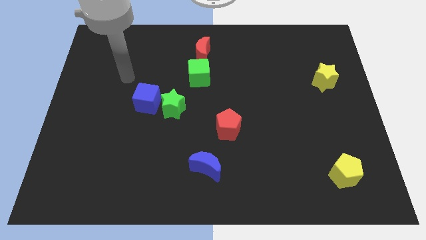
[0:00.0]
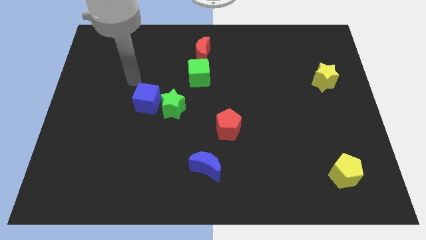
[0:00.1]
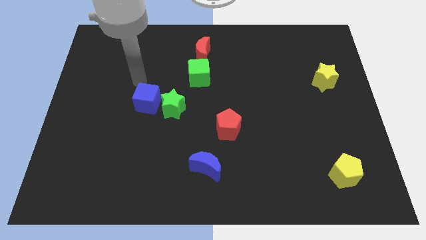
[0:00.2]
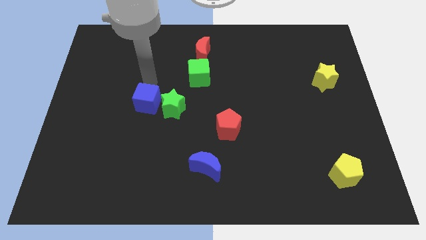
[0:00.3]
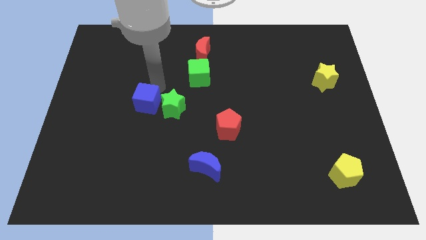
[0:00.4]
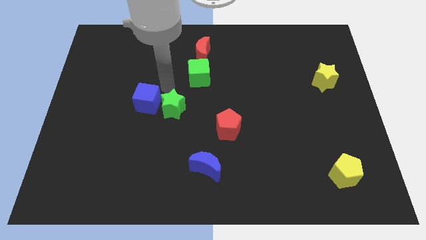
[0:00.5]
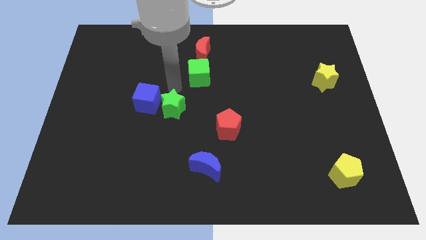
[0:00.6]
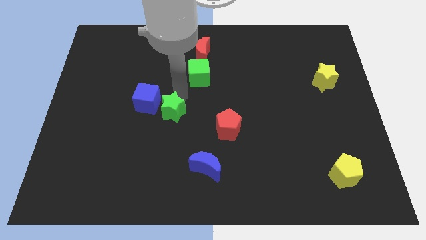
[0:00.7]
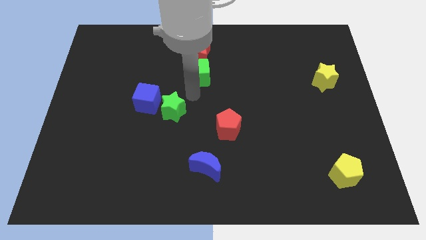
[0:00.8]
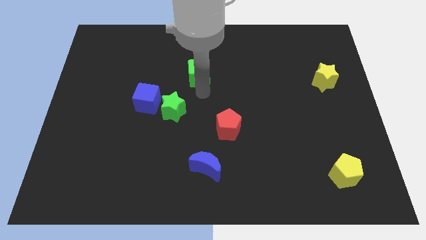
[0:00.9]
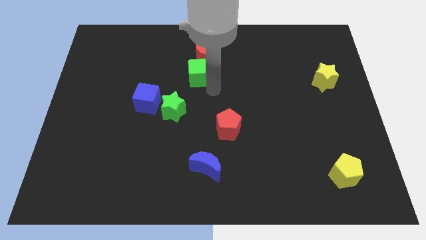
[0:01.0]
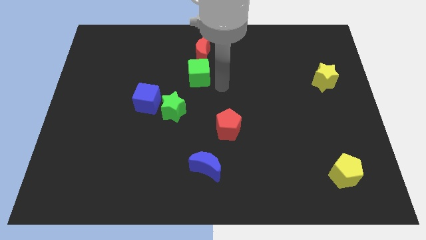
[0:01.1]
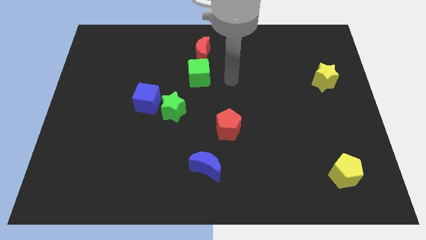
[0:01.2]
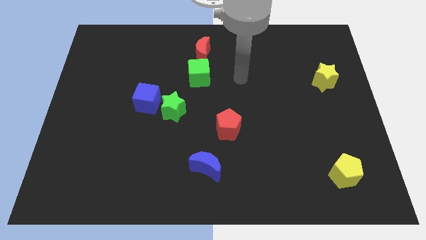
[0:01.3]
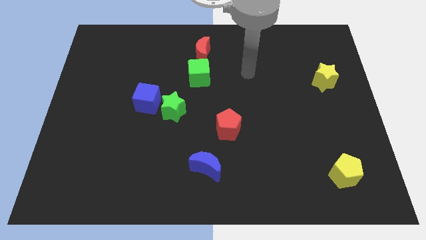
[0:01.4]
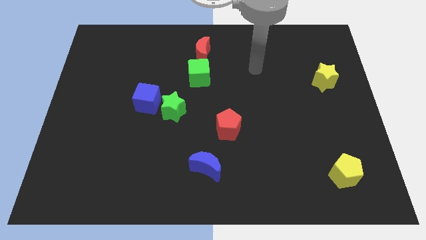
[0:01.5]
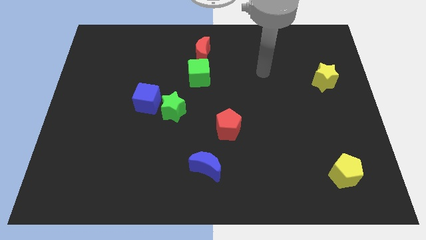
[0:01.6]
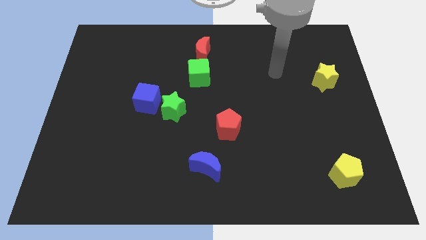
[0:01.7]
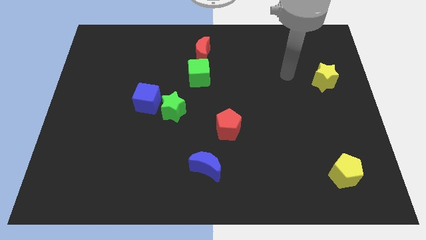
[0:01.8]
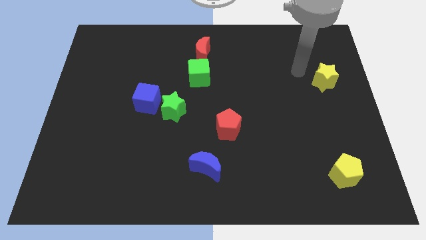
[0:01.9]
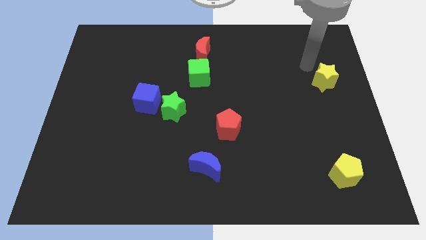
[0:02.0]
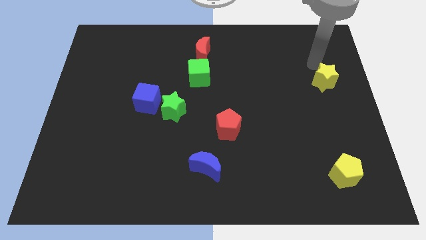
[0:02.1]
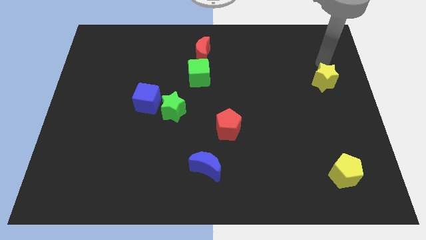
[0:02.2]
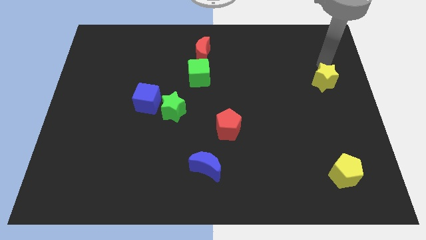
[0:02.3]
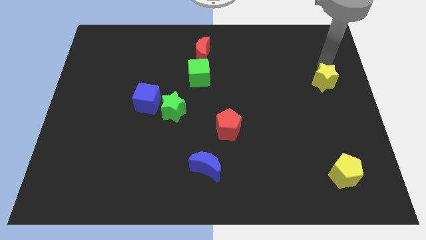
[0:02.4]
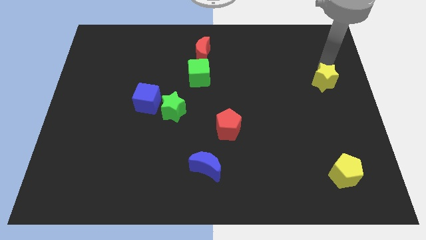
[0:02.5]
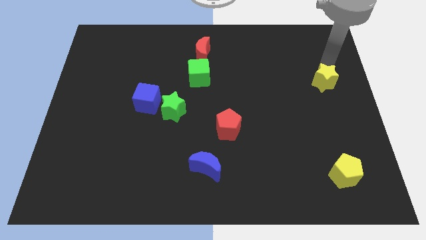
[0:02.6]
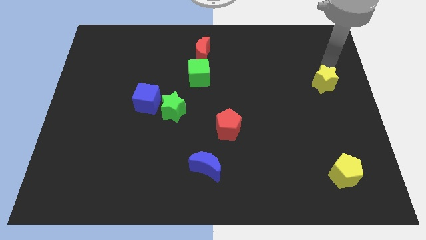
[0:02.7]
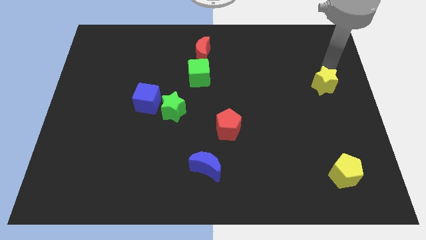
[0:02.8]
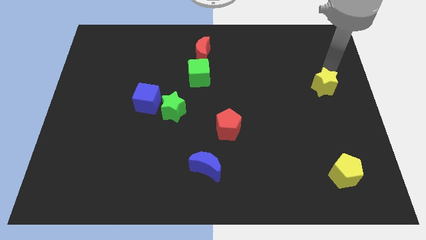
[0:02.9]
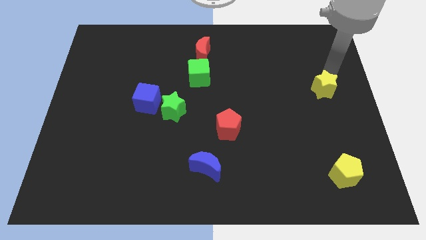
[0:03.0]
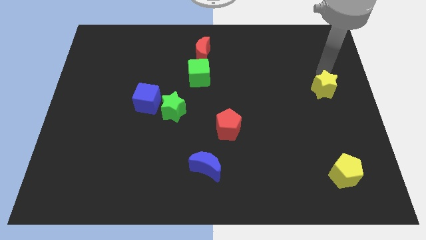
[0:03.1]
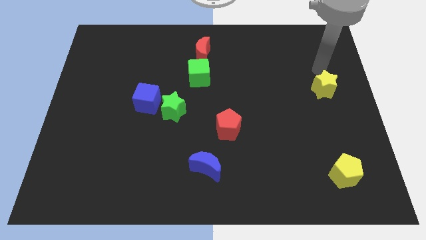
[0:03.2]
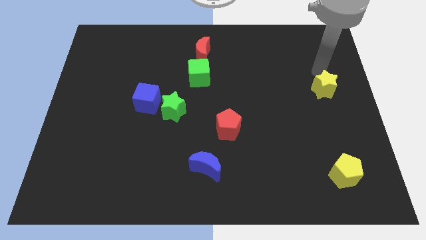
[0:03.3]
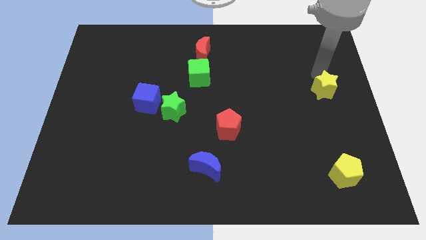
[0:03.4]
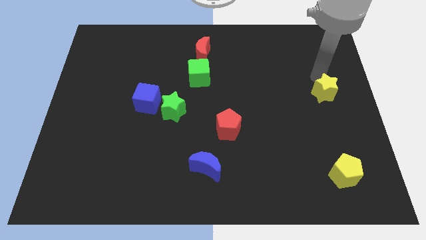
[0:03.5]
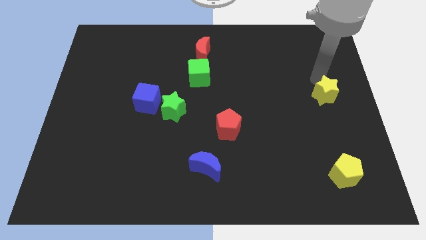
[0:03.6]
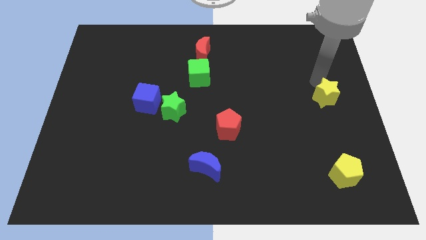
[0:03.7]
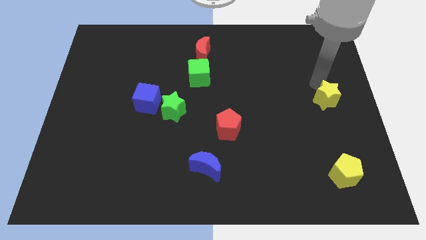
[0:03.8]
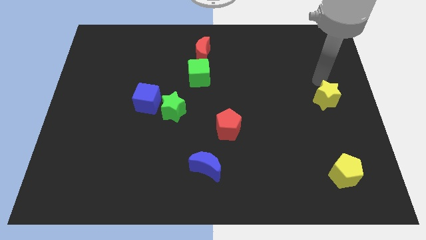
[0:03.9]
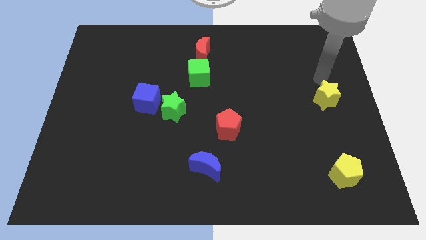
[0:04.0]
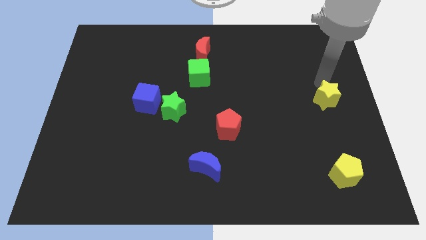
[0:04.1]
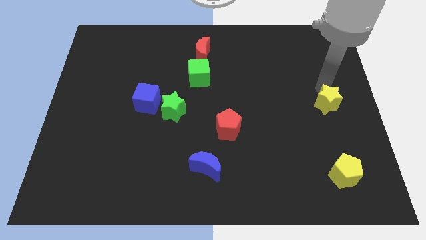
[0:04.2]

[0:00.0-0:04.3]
push the yellow star slightly downwards

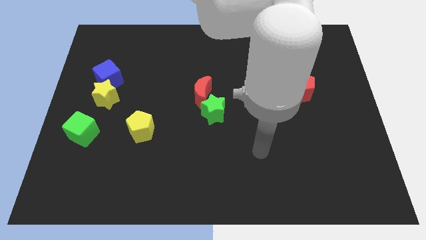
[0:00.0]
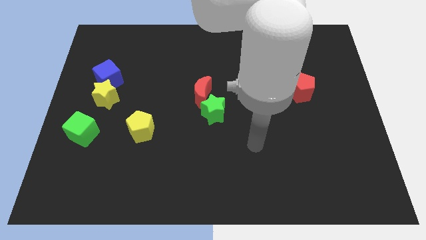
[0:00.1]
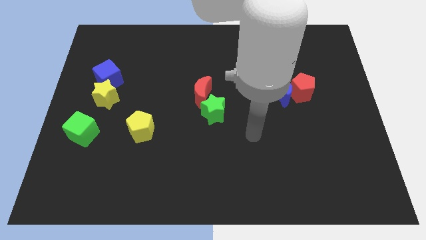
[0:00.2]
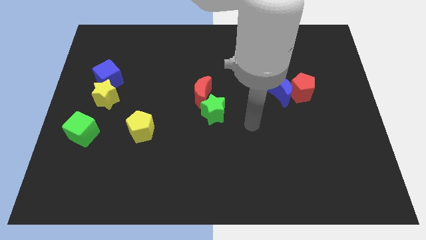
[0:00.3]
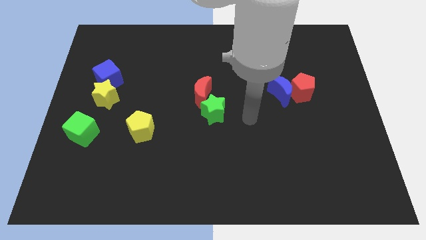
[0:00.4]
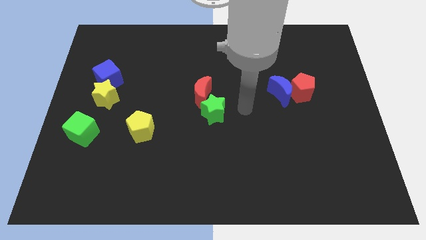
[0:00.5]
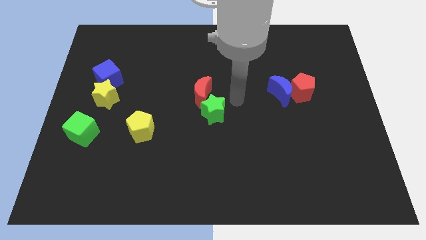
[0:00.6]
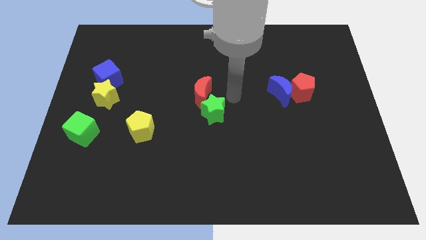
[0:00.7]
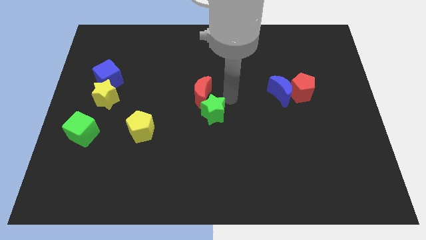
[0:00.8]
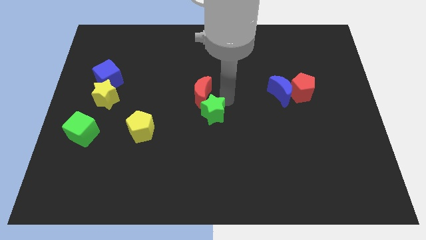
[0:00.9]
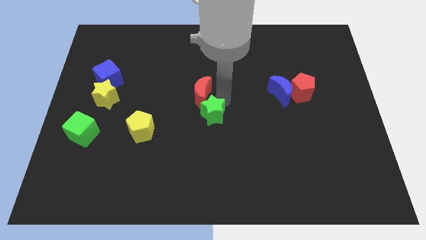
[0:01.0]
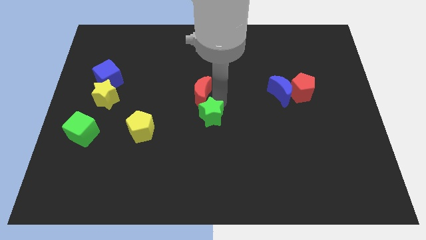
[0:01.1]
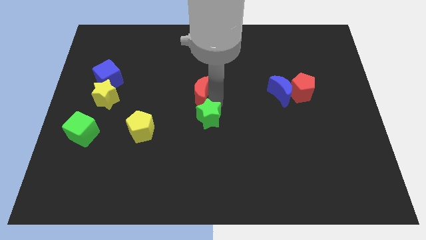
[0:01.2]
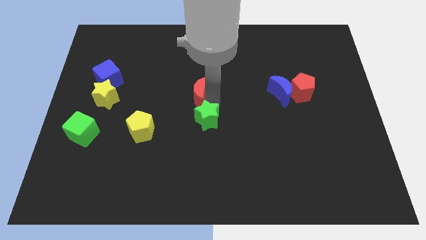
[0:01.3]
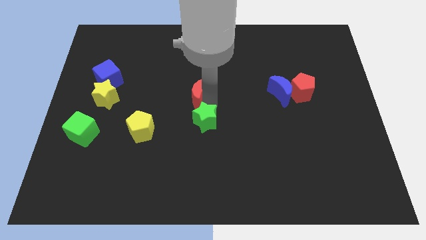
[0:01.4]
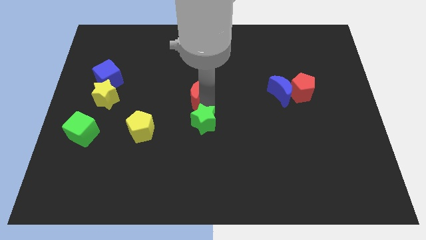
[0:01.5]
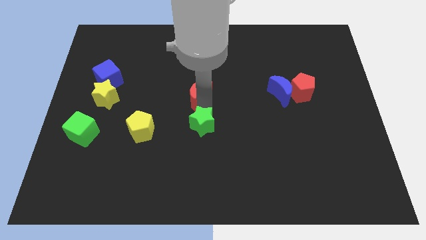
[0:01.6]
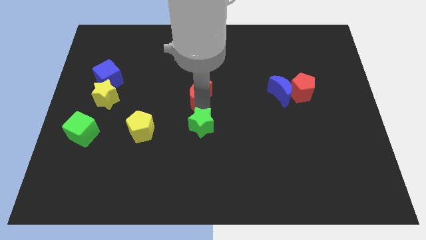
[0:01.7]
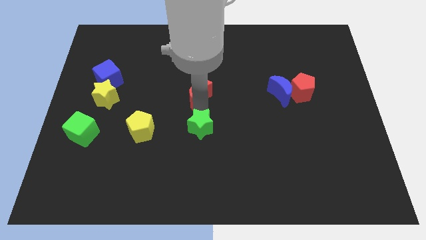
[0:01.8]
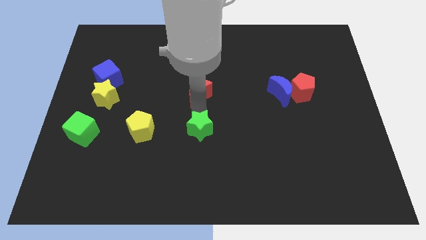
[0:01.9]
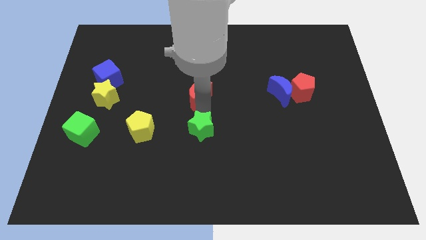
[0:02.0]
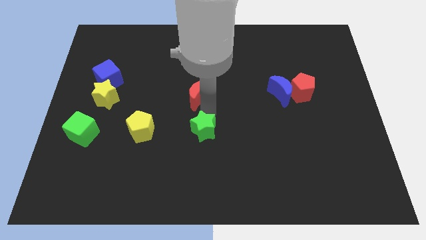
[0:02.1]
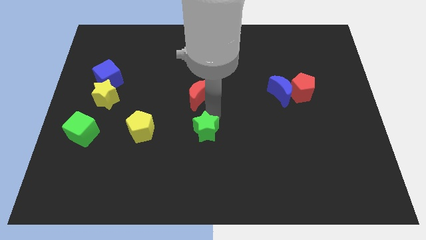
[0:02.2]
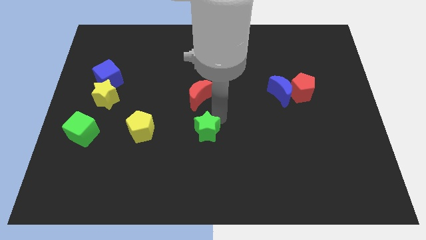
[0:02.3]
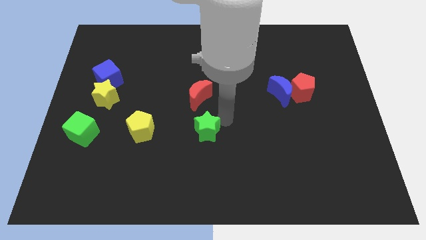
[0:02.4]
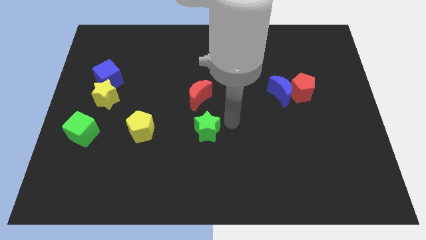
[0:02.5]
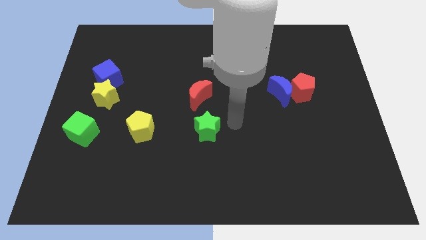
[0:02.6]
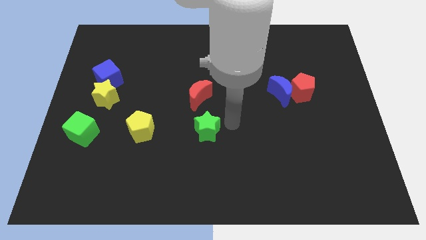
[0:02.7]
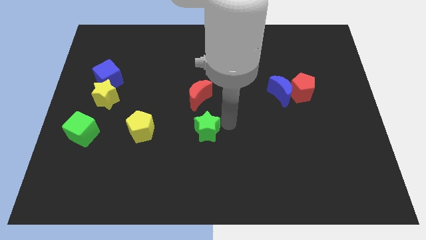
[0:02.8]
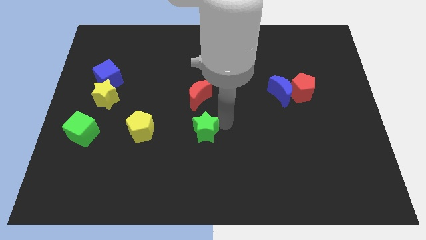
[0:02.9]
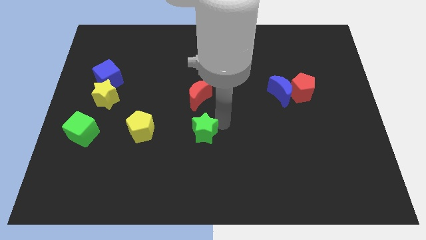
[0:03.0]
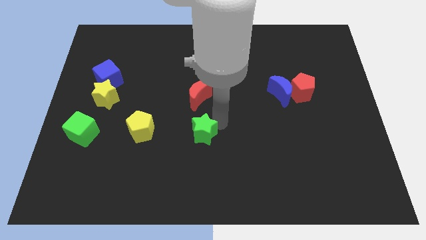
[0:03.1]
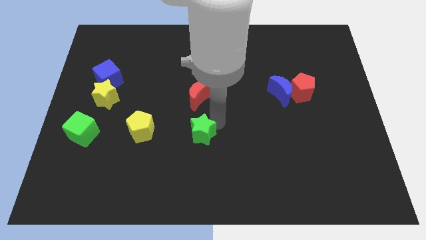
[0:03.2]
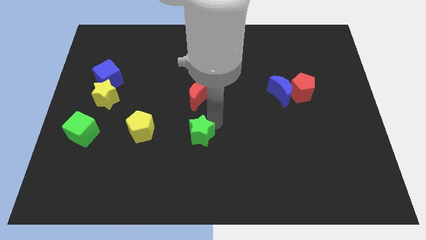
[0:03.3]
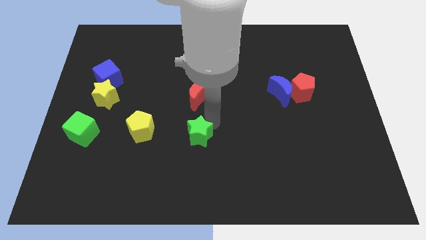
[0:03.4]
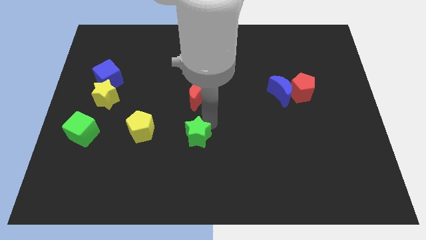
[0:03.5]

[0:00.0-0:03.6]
slide the green star downwards and then to the left a bit
